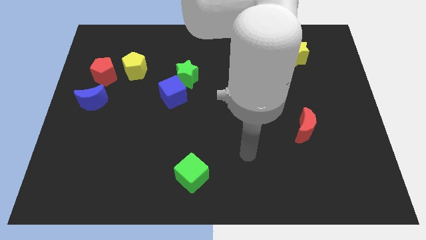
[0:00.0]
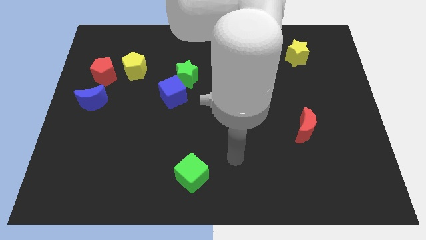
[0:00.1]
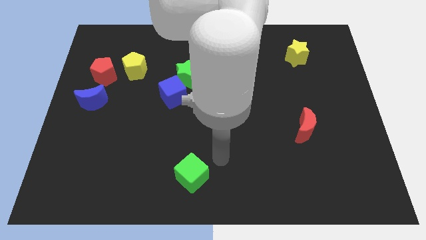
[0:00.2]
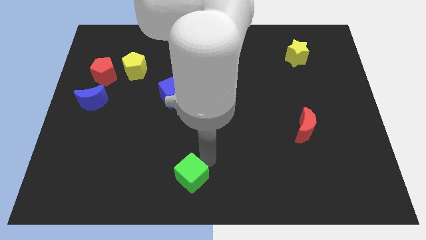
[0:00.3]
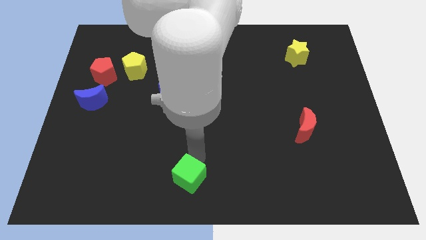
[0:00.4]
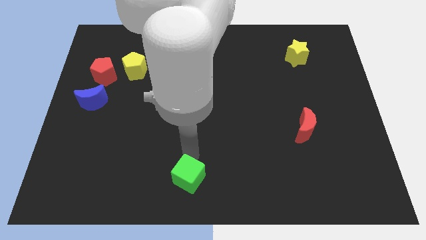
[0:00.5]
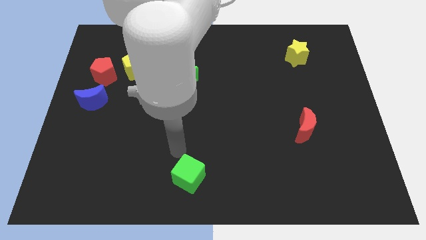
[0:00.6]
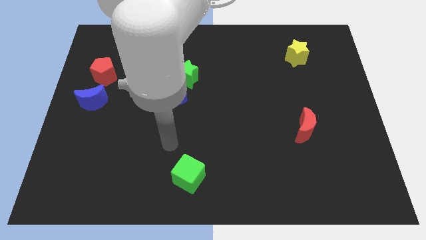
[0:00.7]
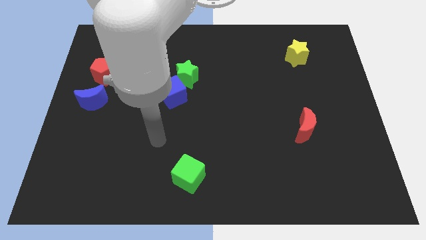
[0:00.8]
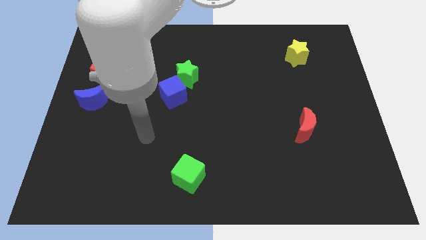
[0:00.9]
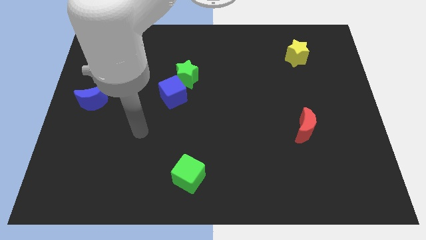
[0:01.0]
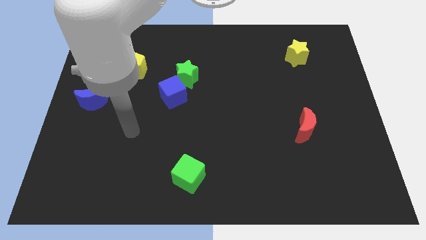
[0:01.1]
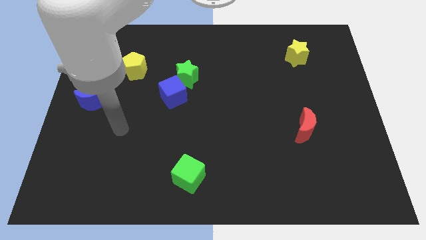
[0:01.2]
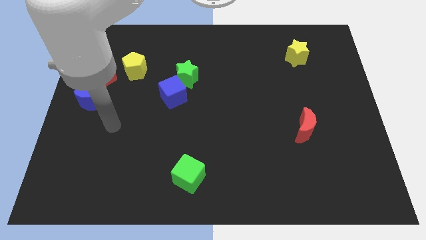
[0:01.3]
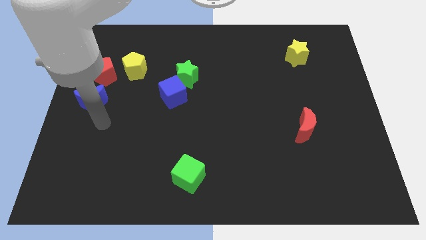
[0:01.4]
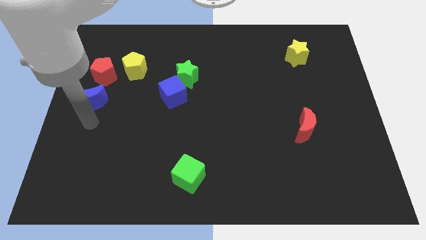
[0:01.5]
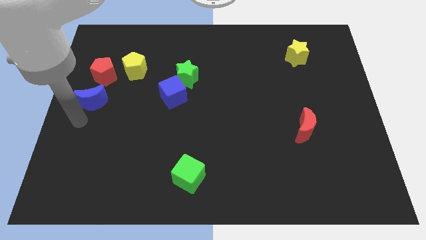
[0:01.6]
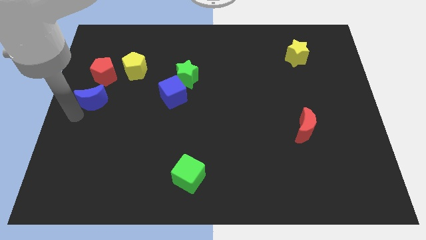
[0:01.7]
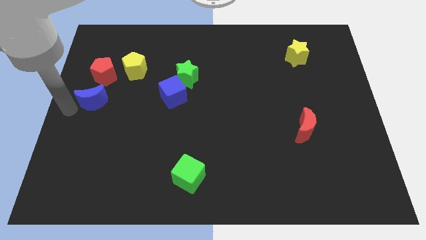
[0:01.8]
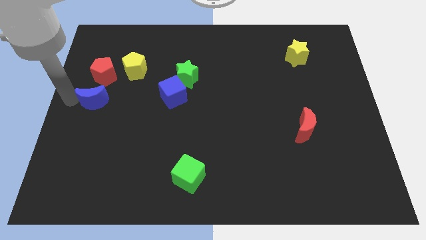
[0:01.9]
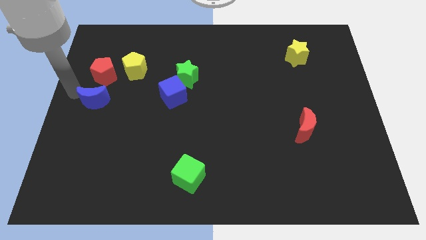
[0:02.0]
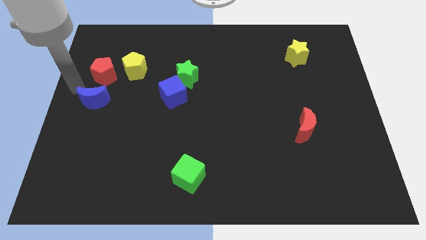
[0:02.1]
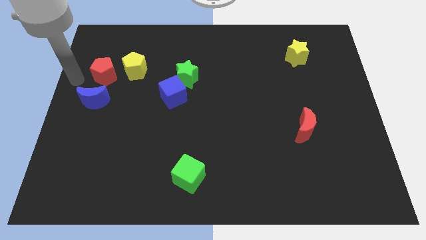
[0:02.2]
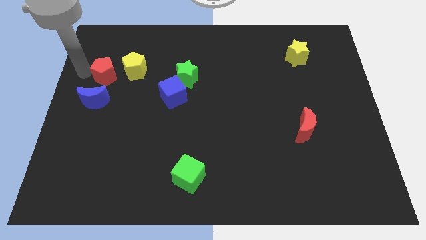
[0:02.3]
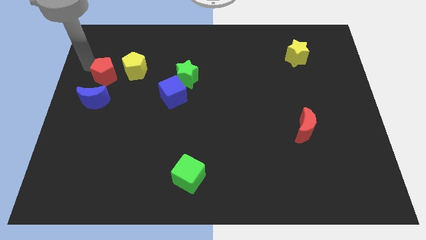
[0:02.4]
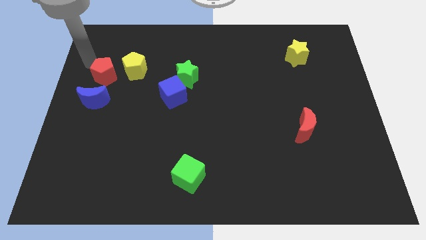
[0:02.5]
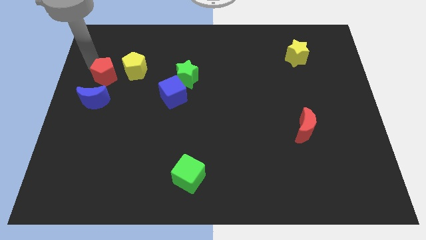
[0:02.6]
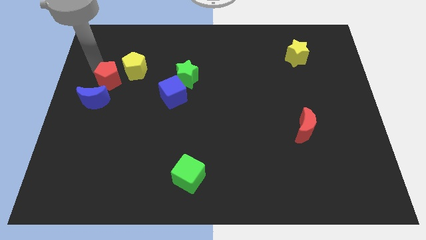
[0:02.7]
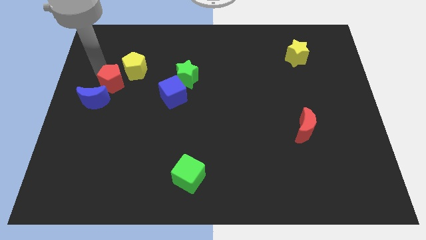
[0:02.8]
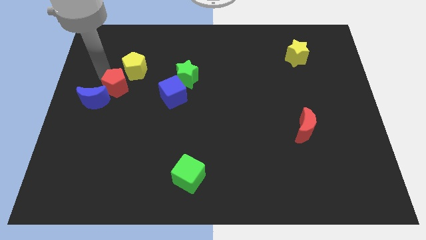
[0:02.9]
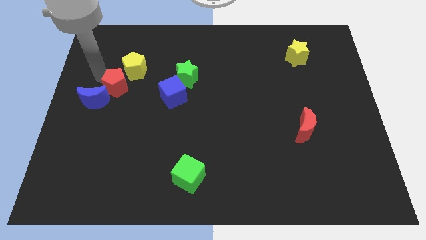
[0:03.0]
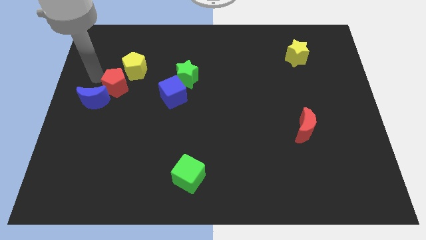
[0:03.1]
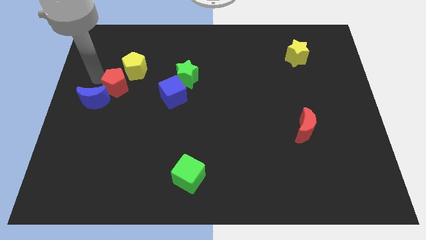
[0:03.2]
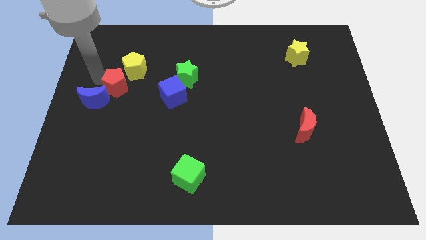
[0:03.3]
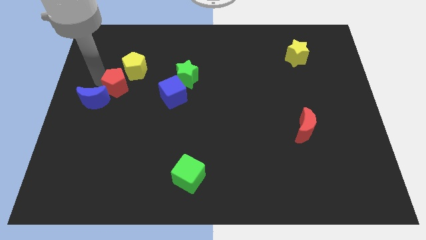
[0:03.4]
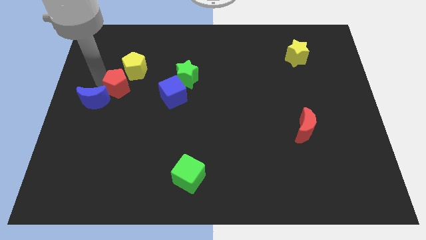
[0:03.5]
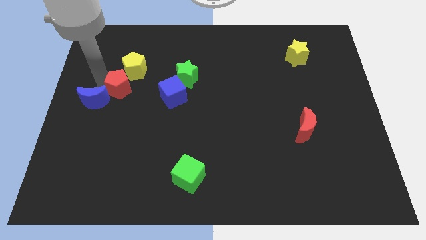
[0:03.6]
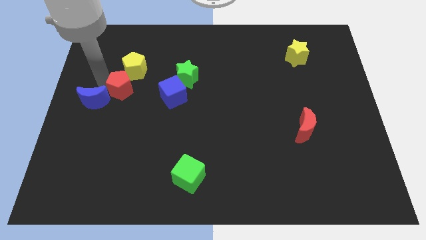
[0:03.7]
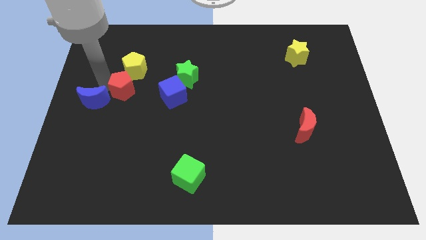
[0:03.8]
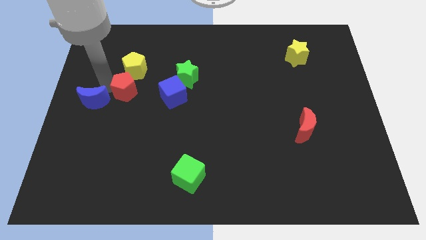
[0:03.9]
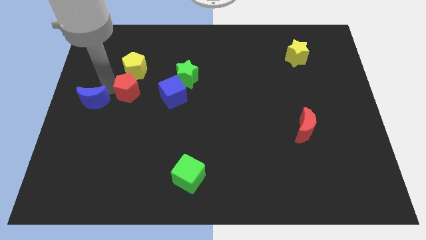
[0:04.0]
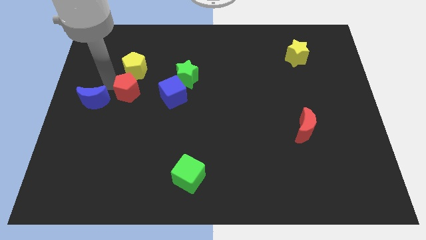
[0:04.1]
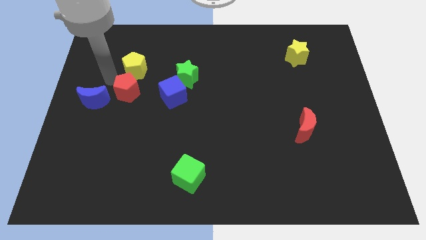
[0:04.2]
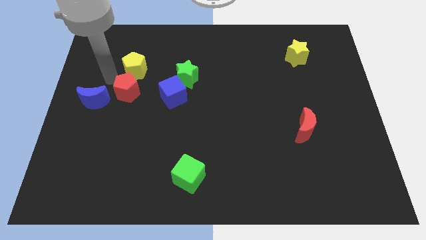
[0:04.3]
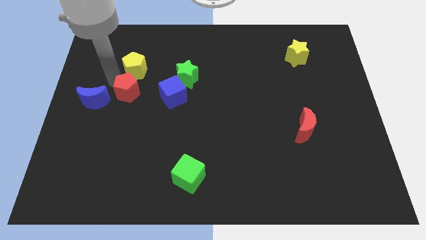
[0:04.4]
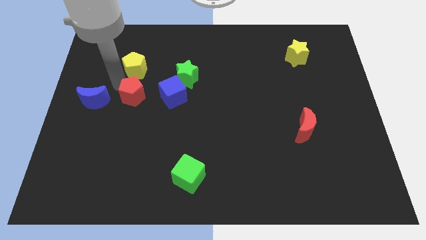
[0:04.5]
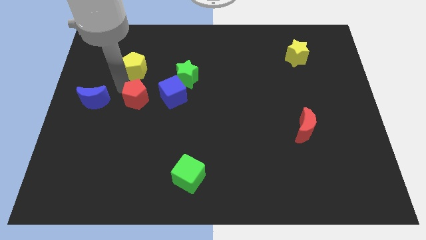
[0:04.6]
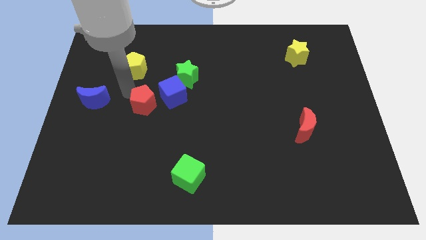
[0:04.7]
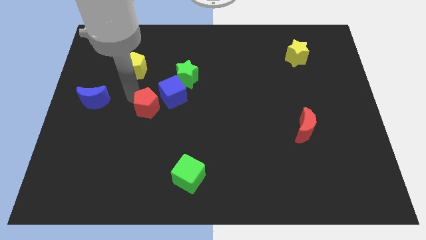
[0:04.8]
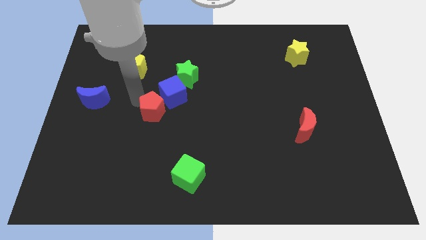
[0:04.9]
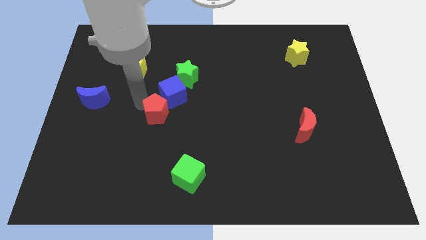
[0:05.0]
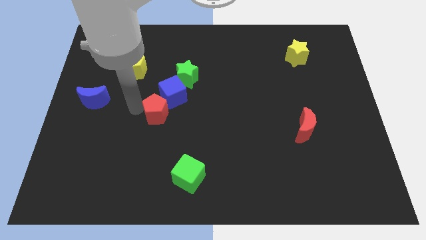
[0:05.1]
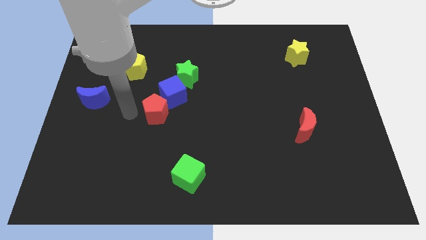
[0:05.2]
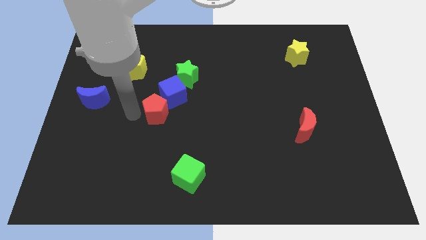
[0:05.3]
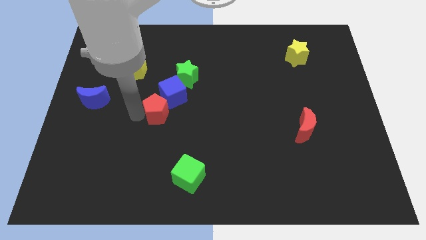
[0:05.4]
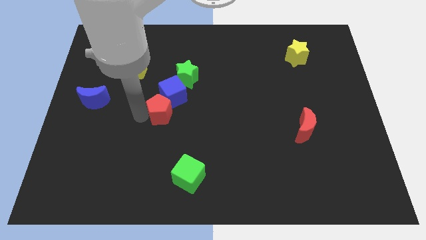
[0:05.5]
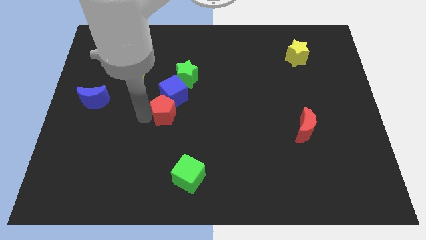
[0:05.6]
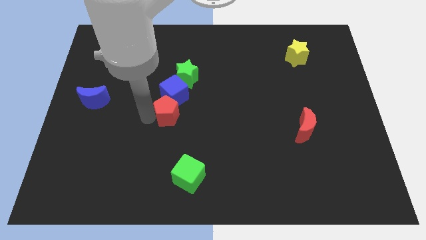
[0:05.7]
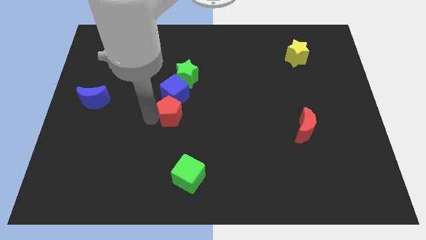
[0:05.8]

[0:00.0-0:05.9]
put the red pentagon diagonally down and to the right of the blue cube
